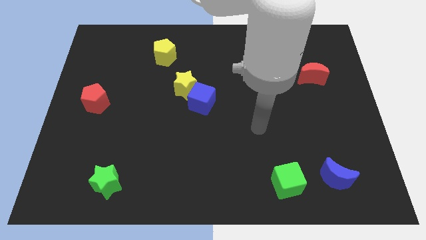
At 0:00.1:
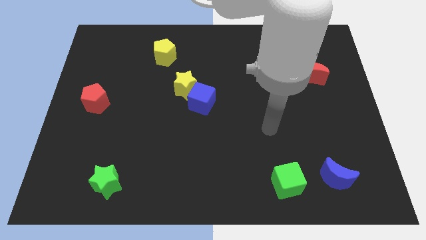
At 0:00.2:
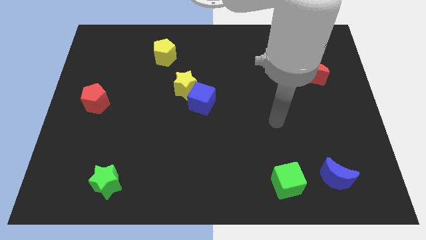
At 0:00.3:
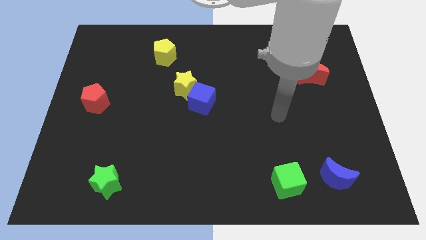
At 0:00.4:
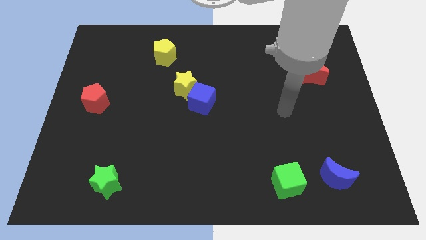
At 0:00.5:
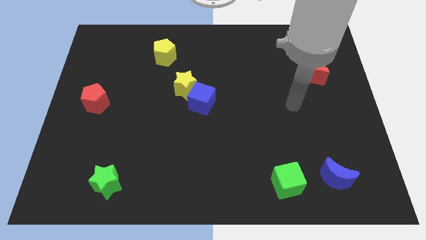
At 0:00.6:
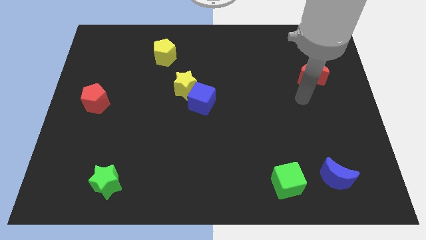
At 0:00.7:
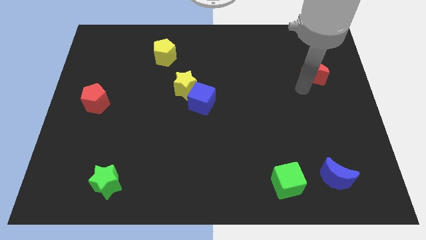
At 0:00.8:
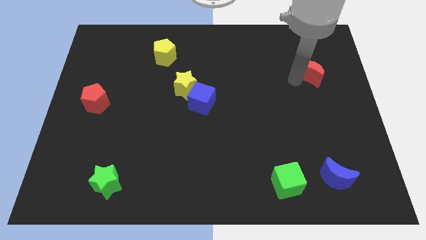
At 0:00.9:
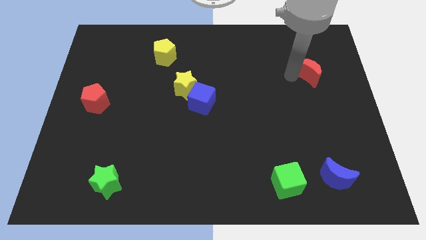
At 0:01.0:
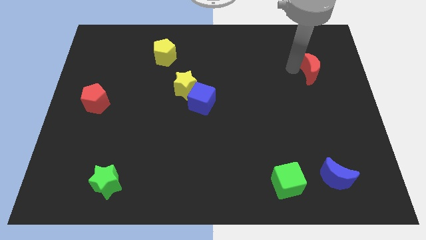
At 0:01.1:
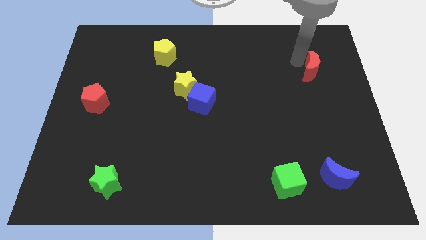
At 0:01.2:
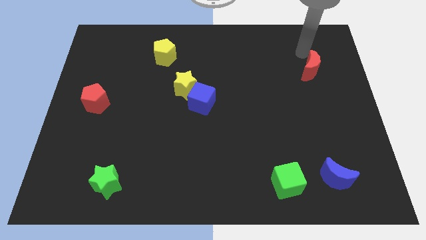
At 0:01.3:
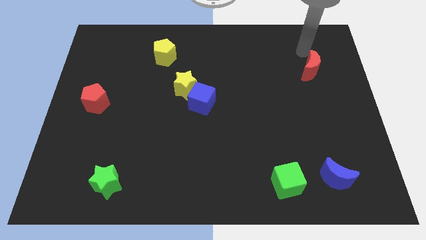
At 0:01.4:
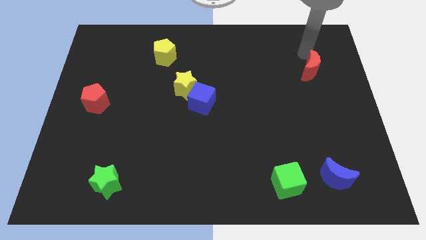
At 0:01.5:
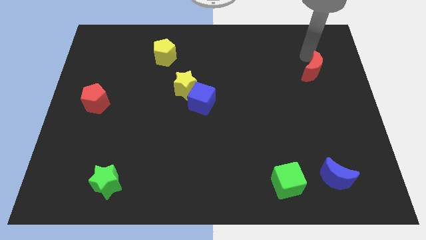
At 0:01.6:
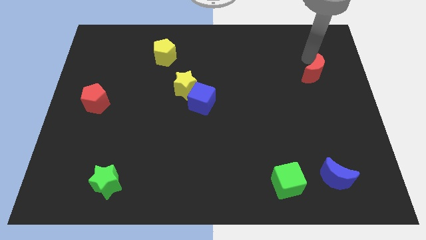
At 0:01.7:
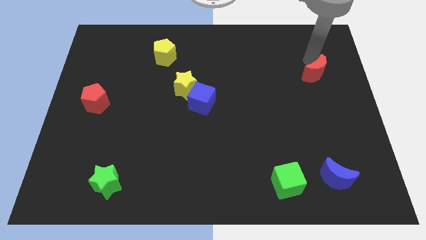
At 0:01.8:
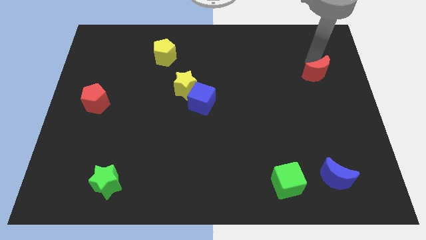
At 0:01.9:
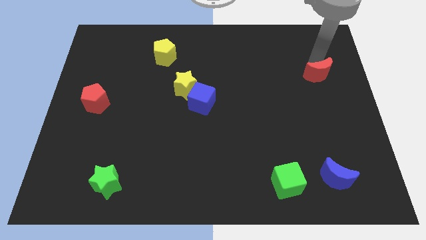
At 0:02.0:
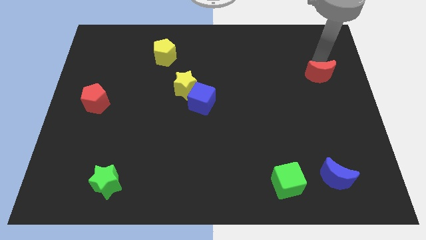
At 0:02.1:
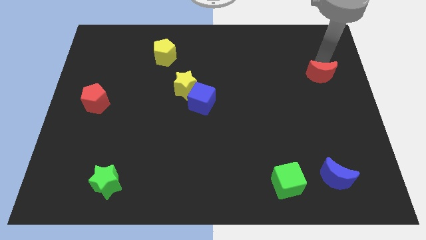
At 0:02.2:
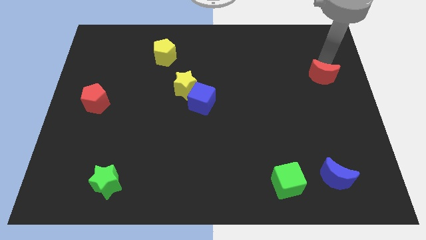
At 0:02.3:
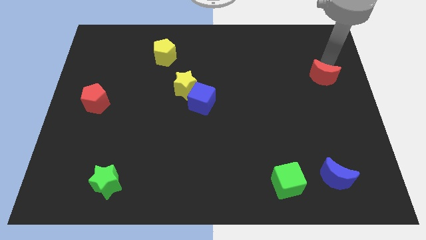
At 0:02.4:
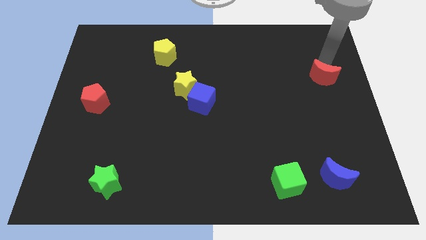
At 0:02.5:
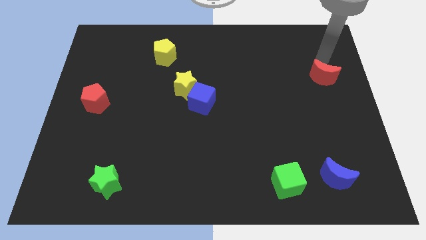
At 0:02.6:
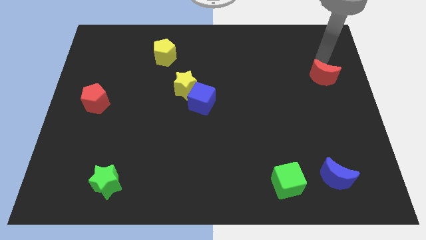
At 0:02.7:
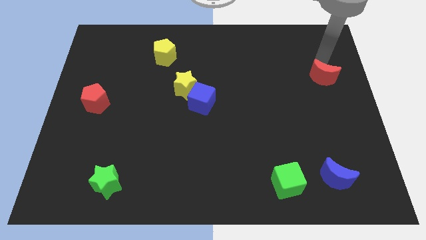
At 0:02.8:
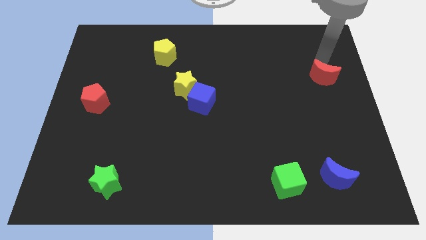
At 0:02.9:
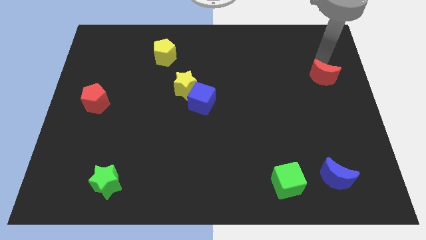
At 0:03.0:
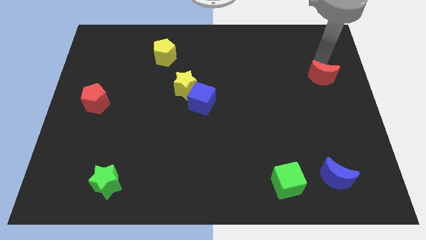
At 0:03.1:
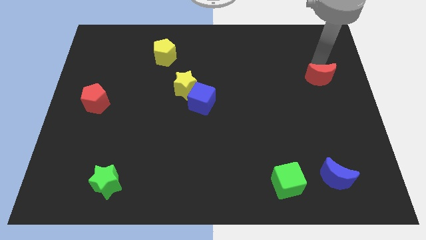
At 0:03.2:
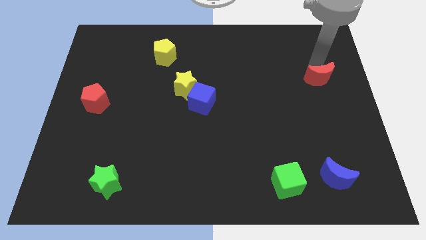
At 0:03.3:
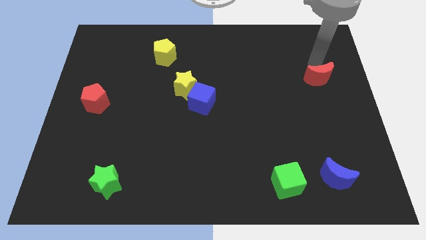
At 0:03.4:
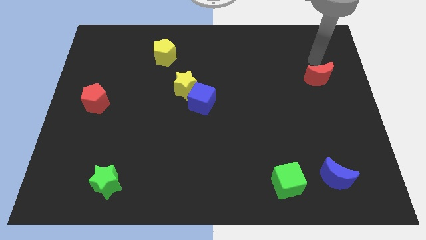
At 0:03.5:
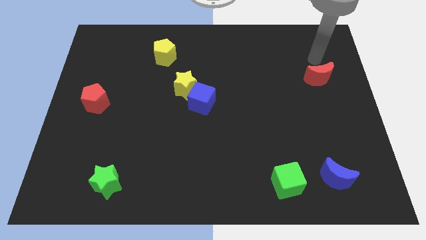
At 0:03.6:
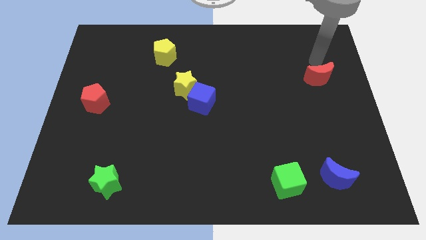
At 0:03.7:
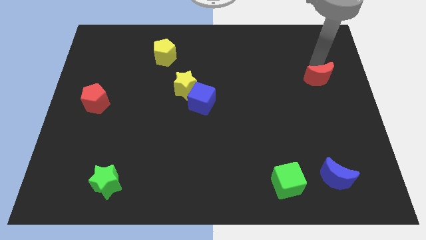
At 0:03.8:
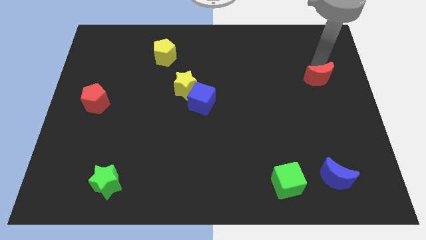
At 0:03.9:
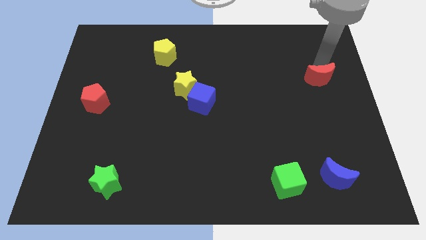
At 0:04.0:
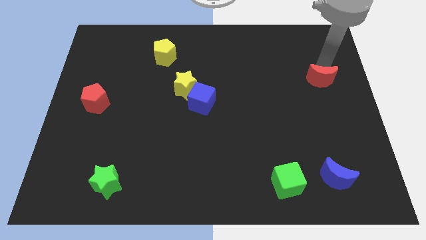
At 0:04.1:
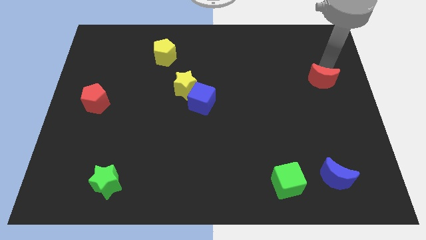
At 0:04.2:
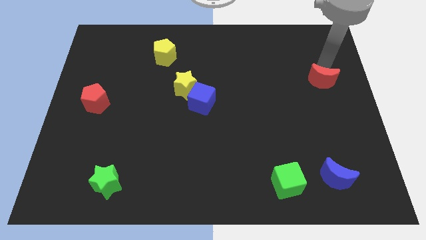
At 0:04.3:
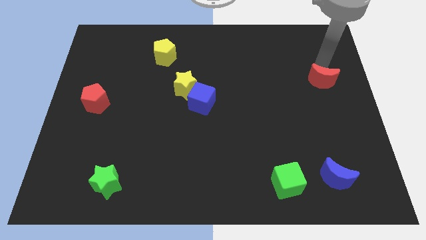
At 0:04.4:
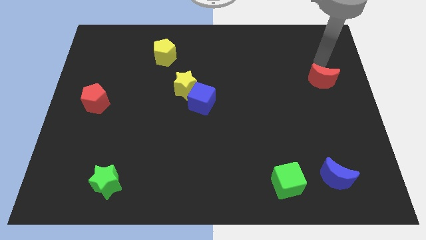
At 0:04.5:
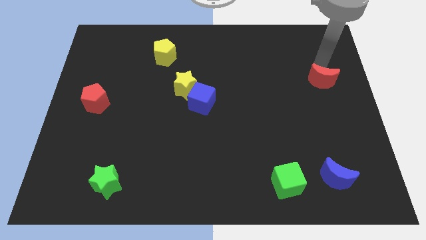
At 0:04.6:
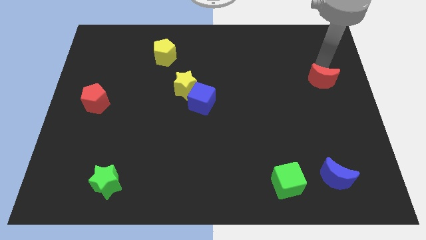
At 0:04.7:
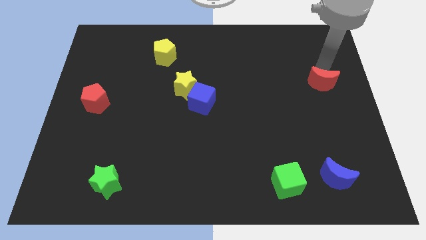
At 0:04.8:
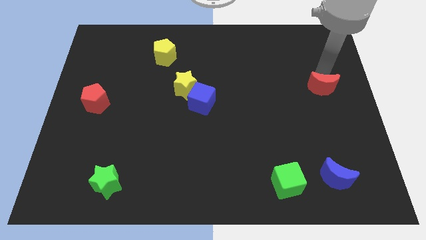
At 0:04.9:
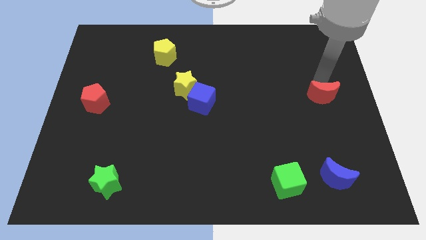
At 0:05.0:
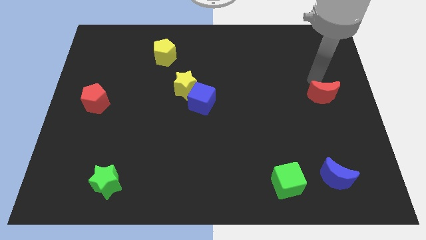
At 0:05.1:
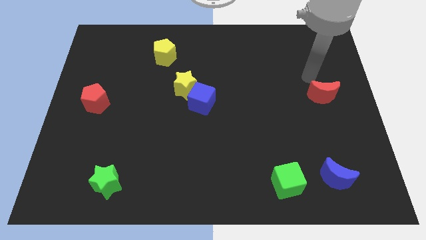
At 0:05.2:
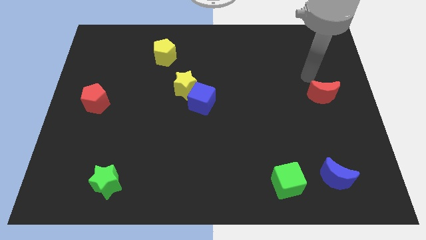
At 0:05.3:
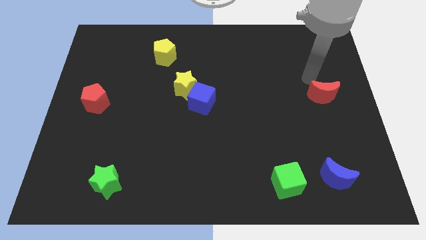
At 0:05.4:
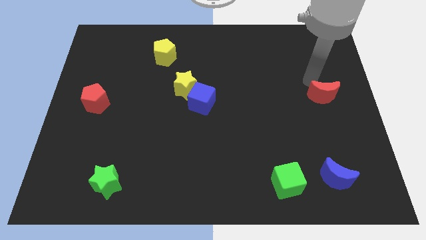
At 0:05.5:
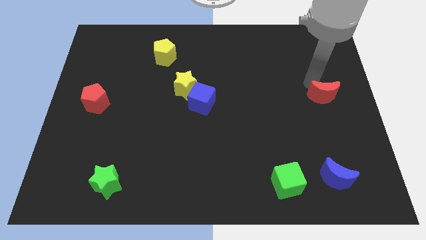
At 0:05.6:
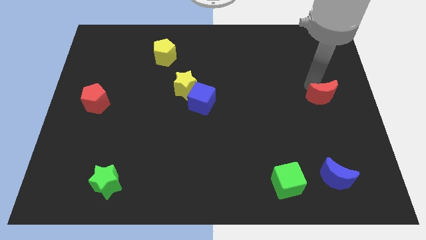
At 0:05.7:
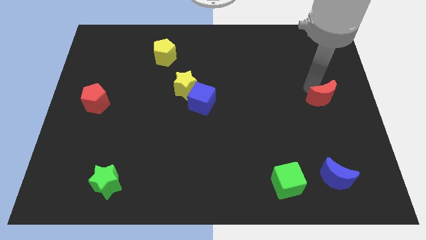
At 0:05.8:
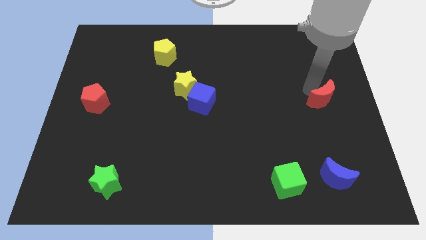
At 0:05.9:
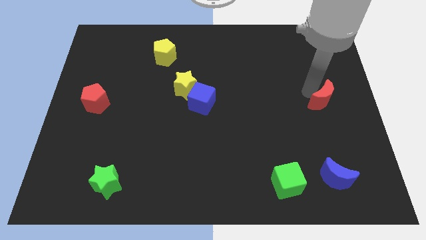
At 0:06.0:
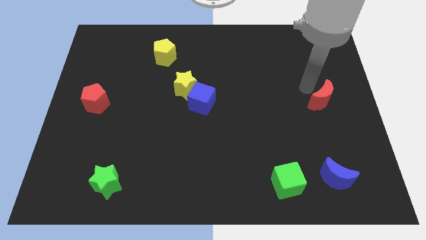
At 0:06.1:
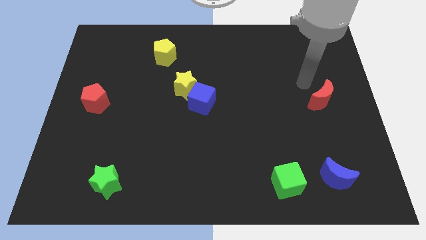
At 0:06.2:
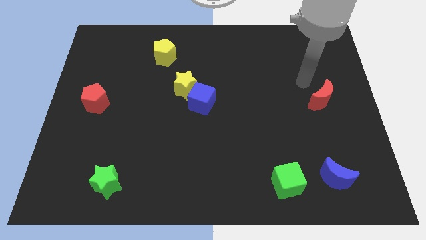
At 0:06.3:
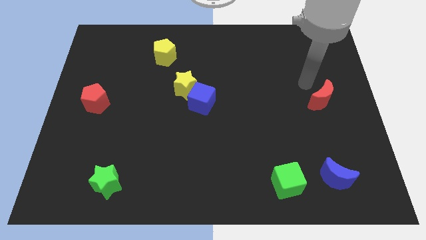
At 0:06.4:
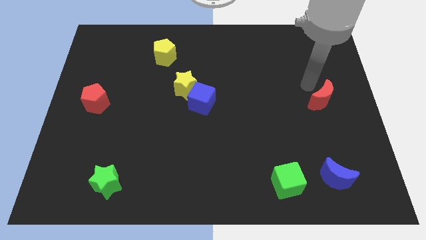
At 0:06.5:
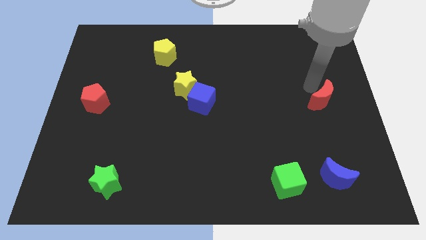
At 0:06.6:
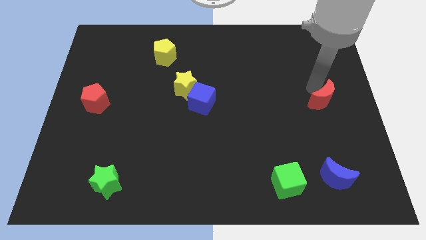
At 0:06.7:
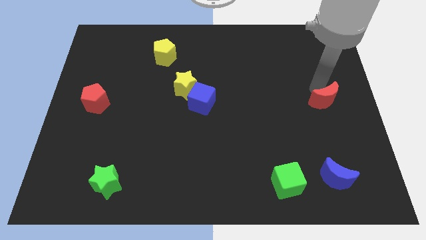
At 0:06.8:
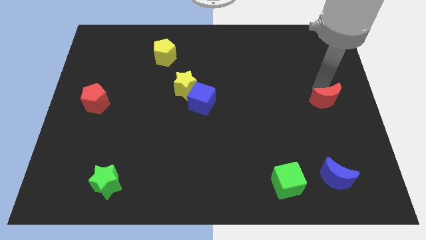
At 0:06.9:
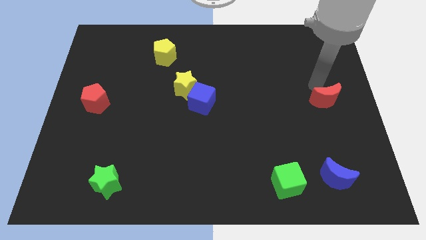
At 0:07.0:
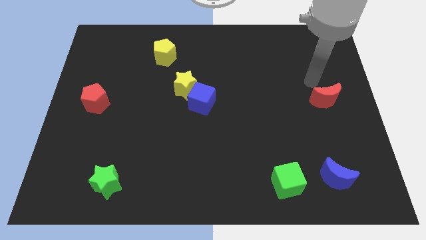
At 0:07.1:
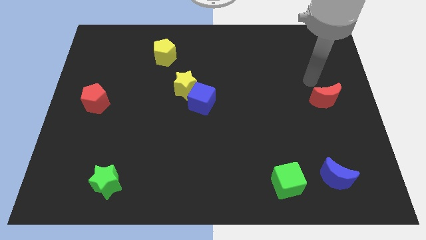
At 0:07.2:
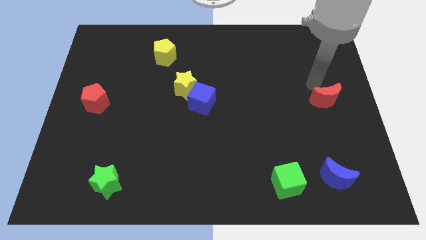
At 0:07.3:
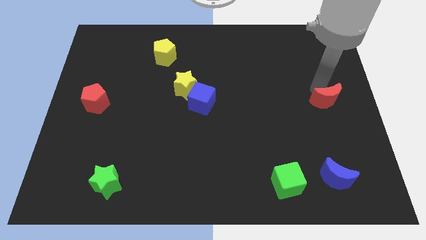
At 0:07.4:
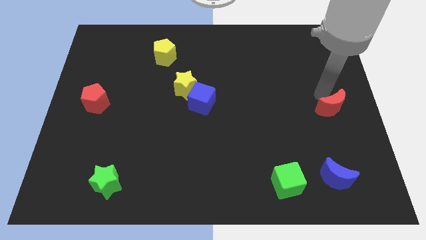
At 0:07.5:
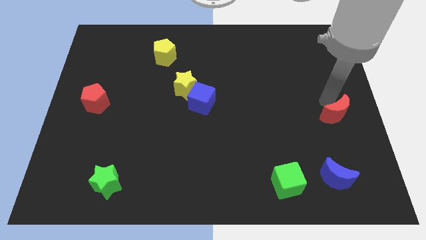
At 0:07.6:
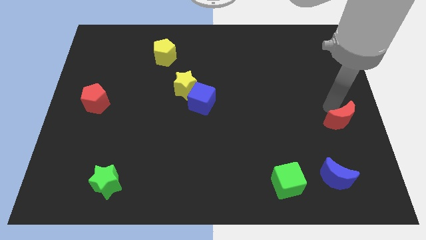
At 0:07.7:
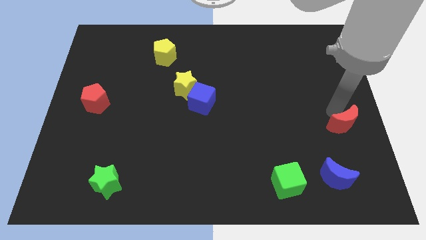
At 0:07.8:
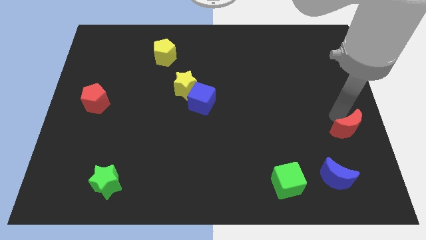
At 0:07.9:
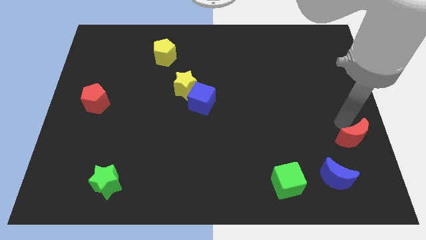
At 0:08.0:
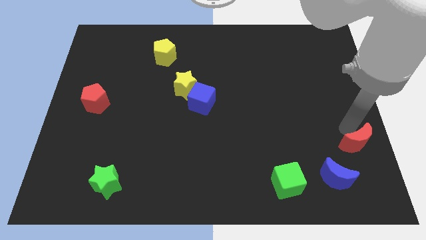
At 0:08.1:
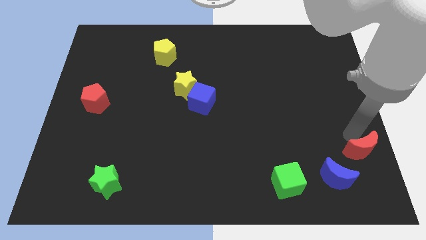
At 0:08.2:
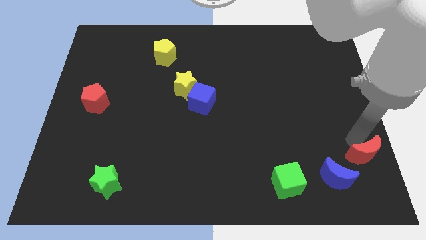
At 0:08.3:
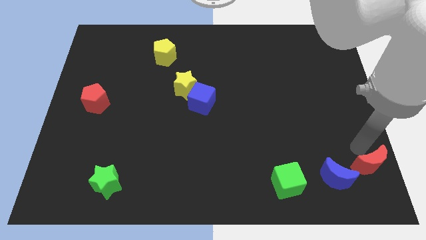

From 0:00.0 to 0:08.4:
move the red moon to the bottom right
